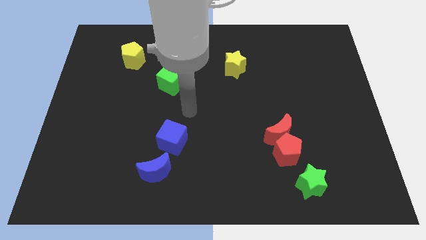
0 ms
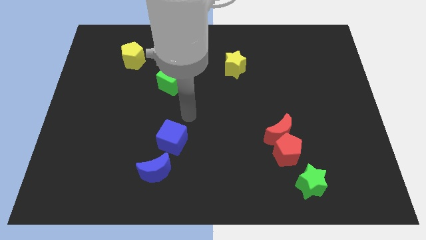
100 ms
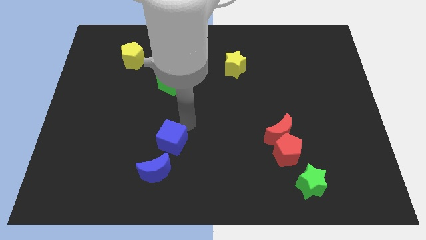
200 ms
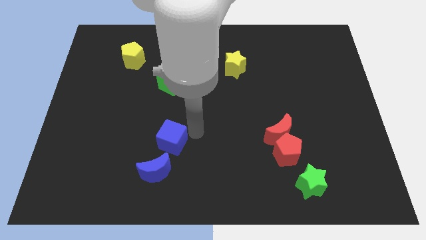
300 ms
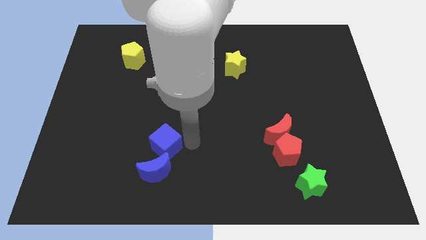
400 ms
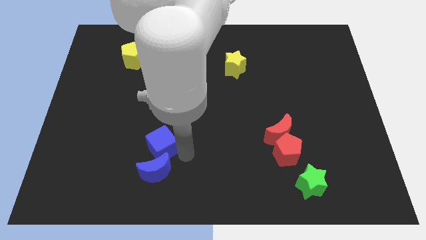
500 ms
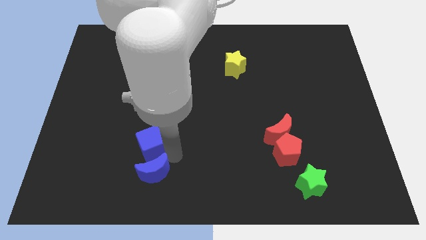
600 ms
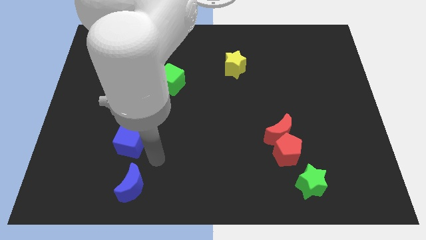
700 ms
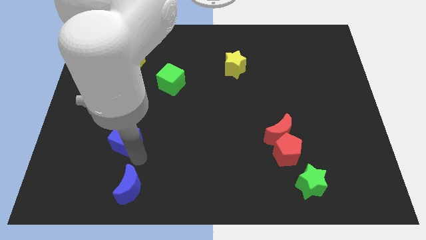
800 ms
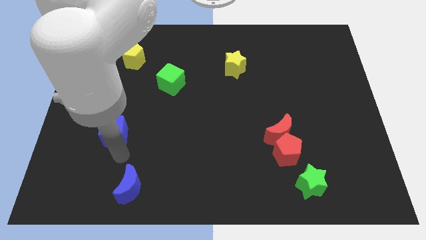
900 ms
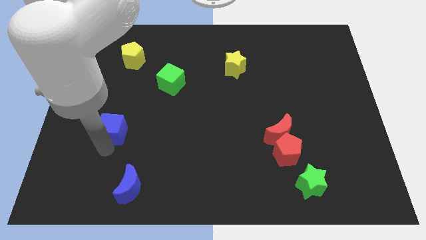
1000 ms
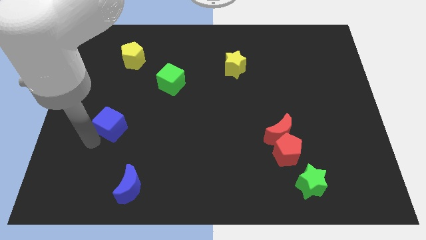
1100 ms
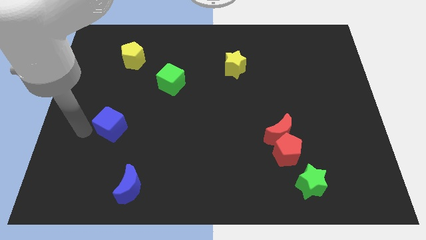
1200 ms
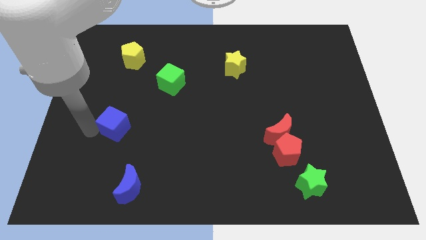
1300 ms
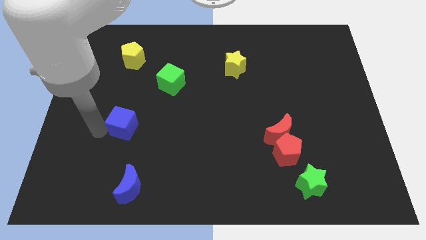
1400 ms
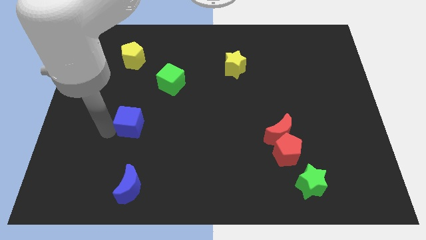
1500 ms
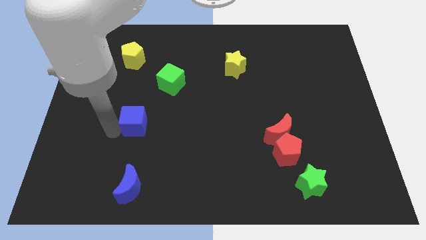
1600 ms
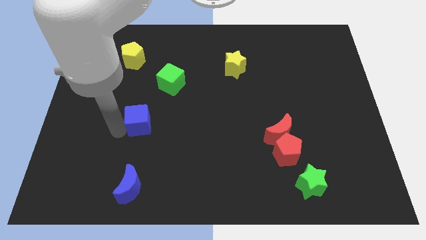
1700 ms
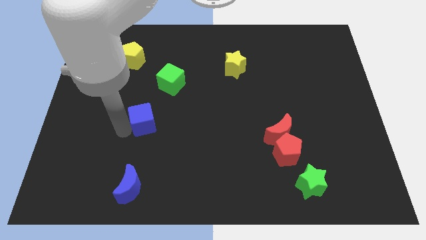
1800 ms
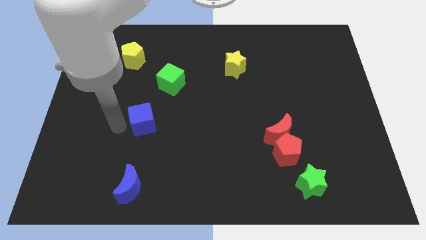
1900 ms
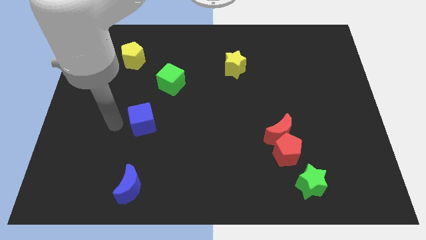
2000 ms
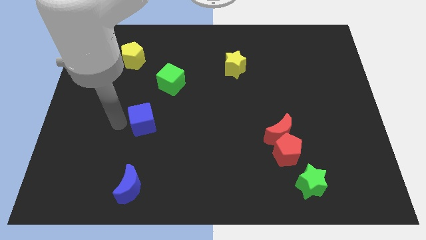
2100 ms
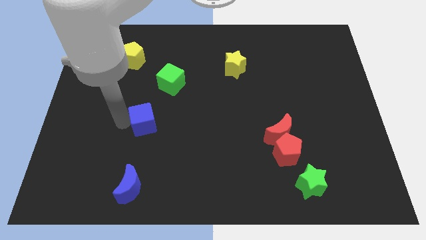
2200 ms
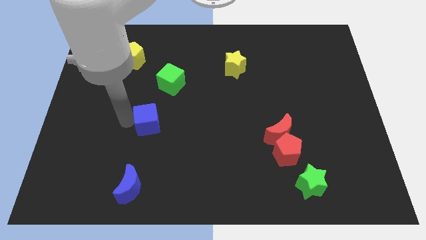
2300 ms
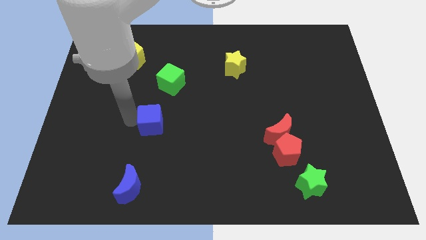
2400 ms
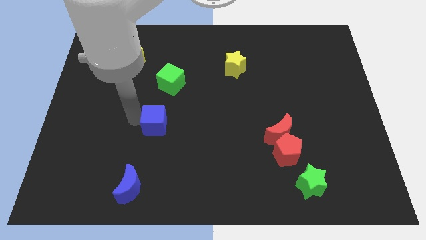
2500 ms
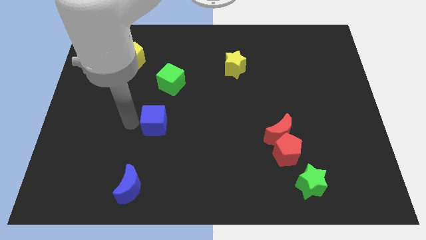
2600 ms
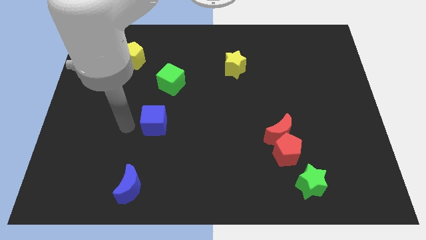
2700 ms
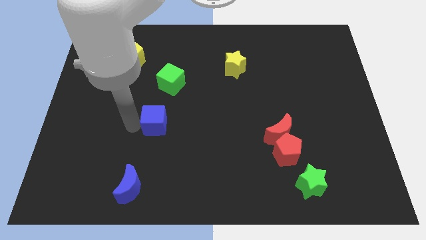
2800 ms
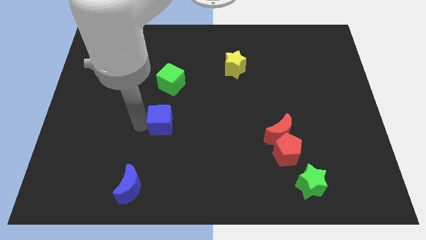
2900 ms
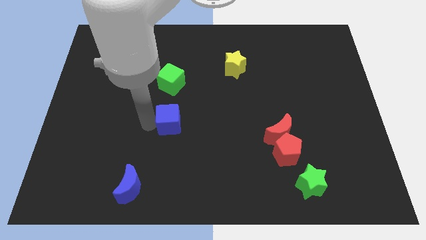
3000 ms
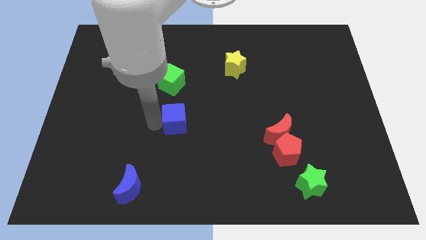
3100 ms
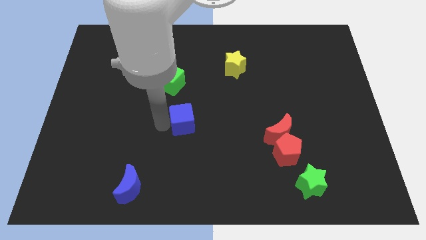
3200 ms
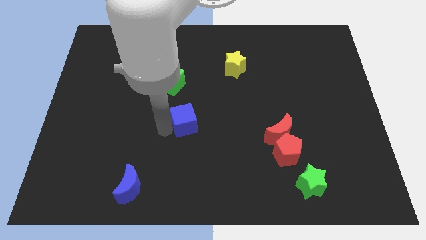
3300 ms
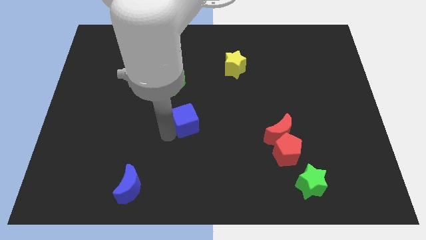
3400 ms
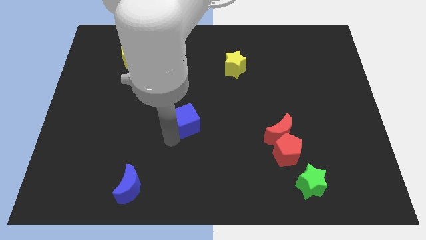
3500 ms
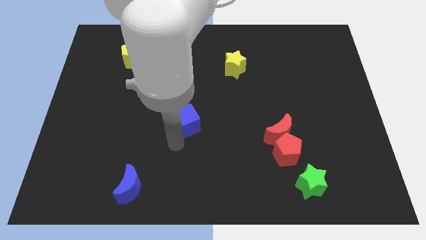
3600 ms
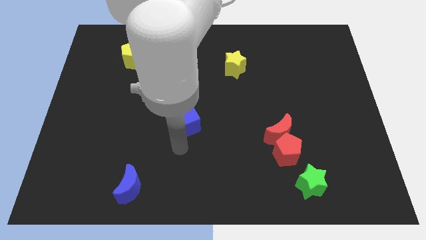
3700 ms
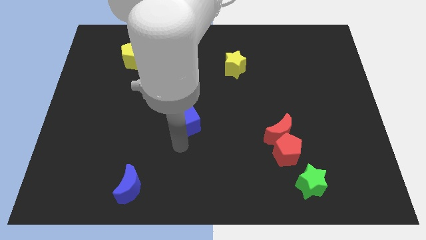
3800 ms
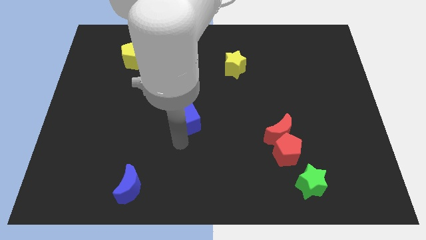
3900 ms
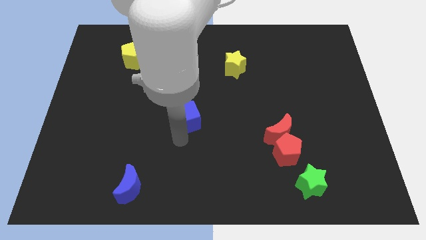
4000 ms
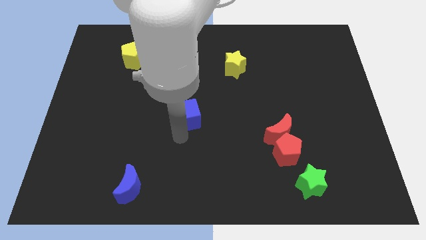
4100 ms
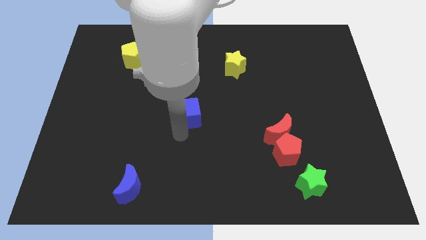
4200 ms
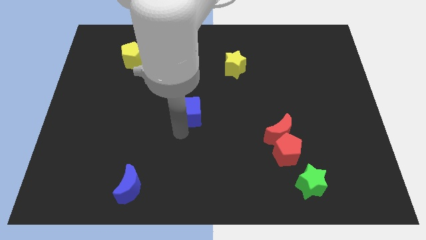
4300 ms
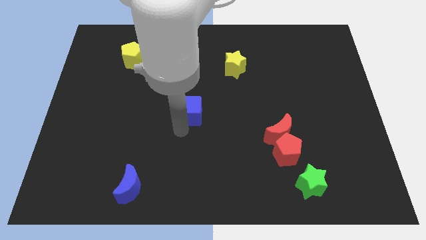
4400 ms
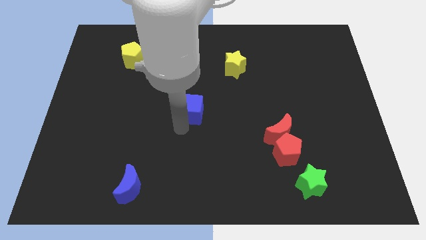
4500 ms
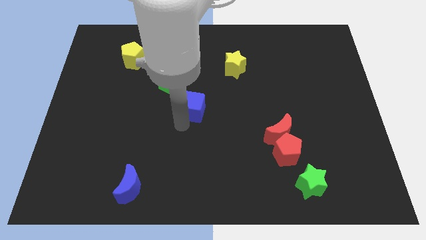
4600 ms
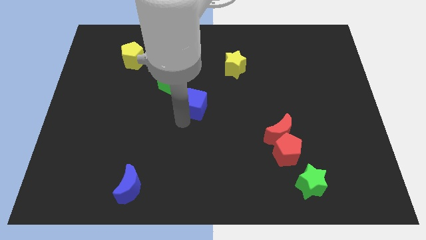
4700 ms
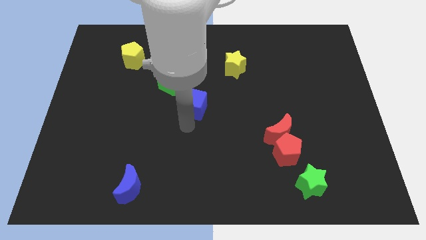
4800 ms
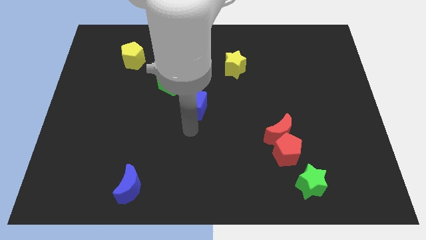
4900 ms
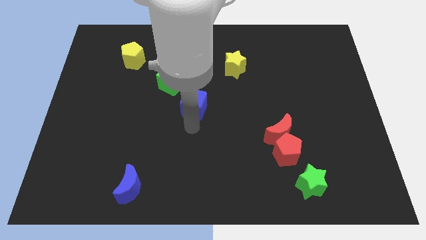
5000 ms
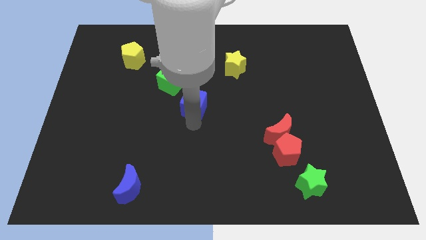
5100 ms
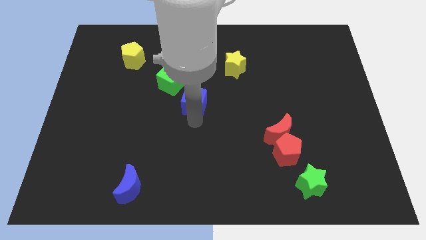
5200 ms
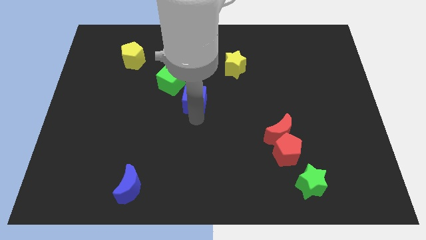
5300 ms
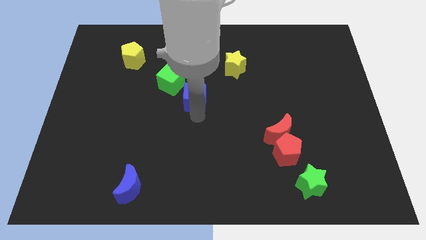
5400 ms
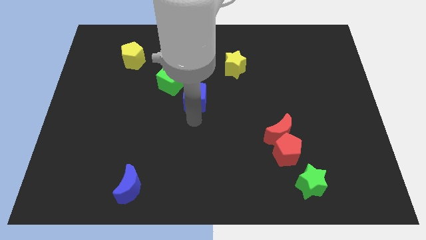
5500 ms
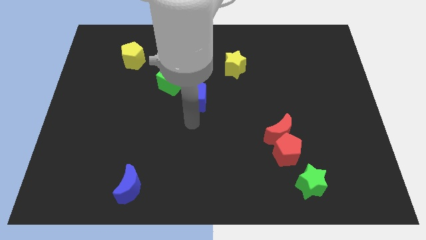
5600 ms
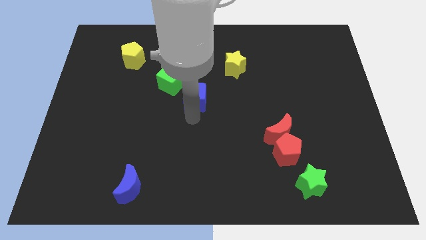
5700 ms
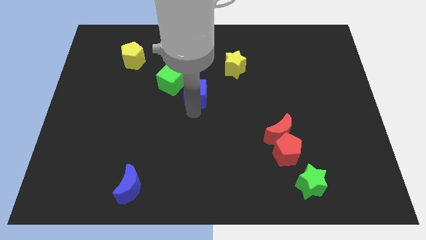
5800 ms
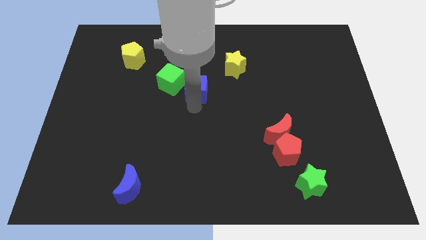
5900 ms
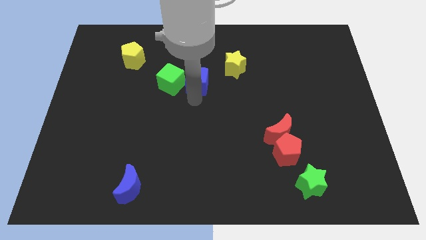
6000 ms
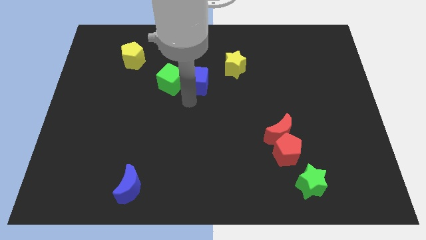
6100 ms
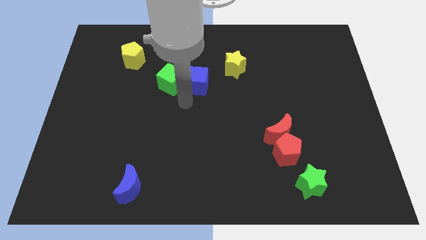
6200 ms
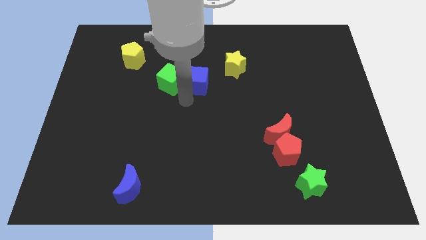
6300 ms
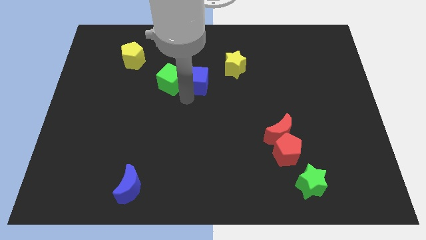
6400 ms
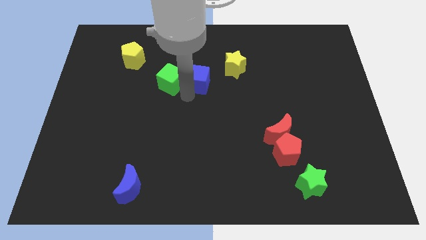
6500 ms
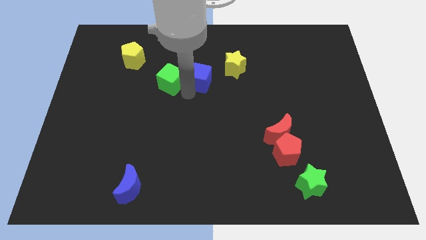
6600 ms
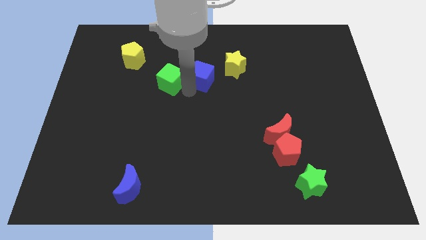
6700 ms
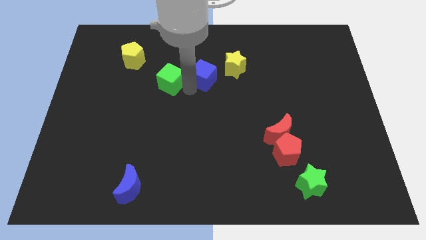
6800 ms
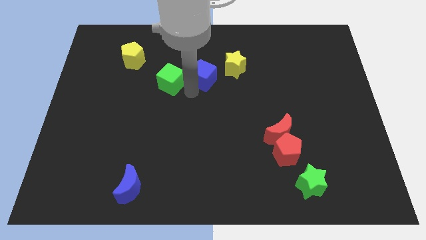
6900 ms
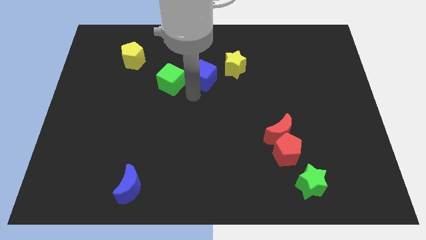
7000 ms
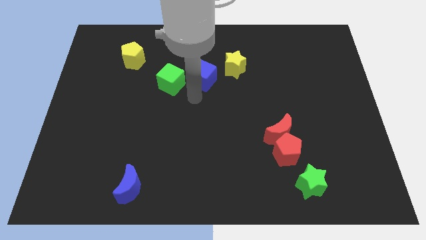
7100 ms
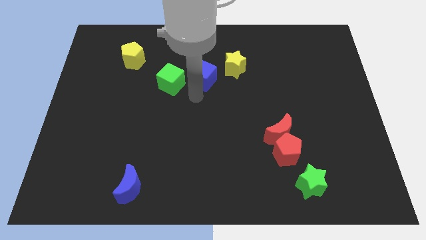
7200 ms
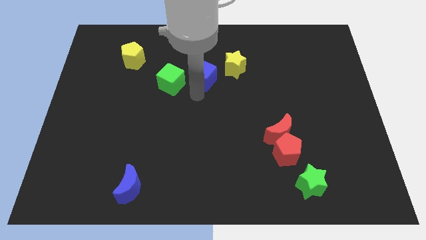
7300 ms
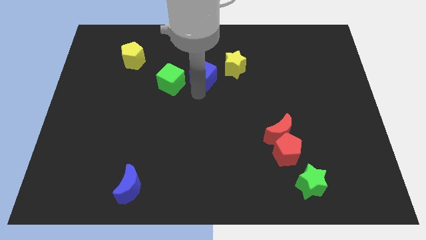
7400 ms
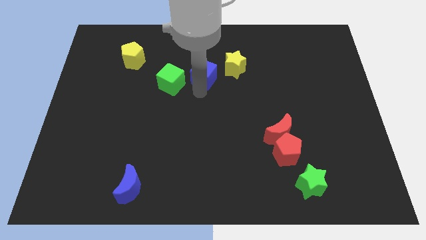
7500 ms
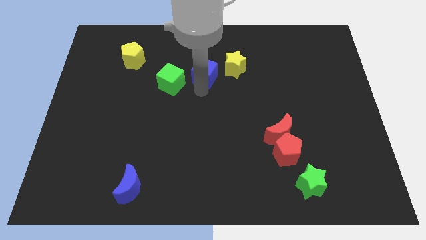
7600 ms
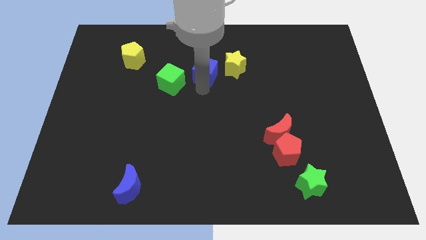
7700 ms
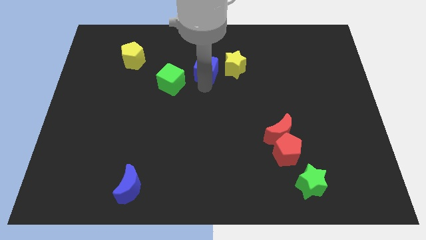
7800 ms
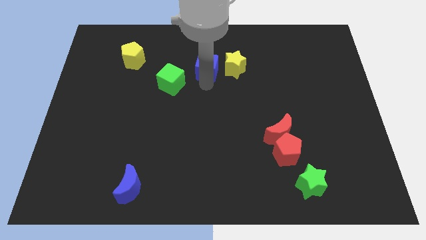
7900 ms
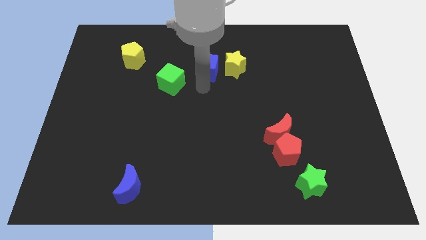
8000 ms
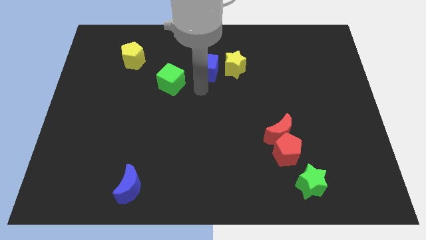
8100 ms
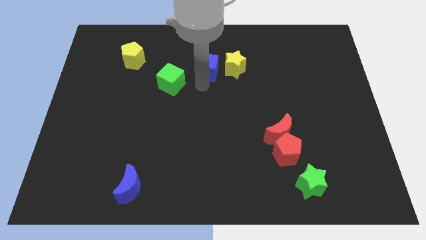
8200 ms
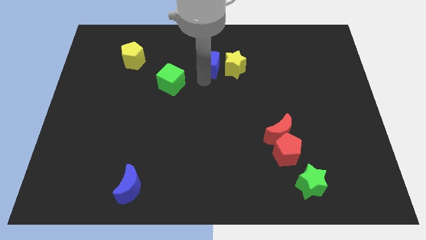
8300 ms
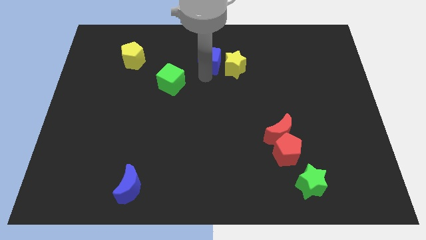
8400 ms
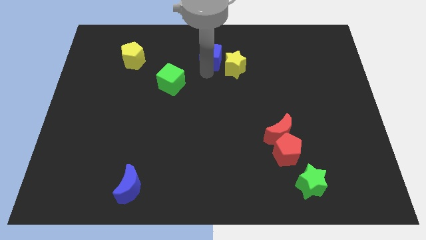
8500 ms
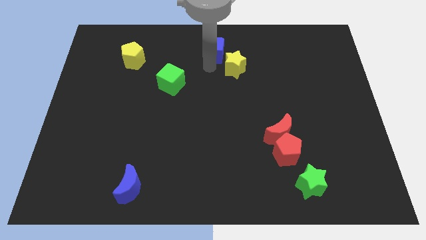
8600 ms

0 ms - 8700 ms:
slide the blue cube to the towards your base
